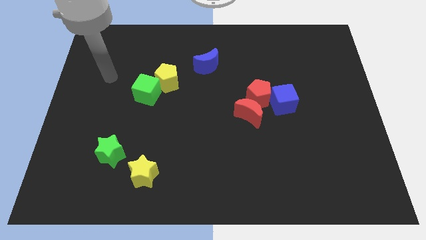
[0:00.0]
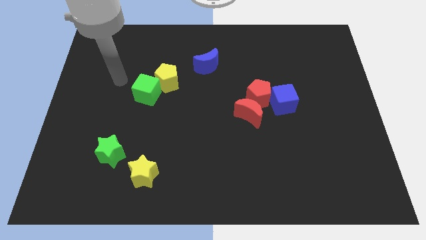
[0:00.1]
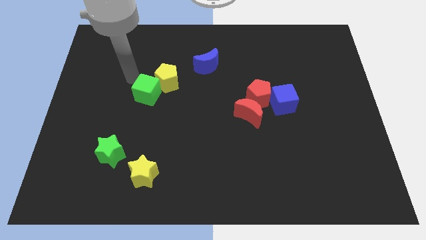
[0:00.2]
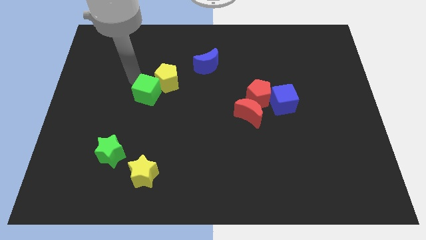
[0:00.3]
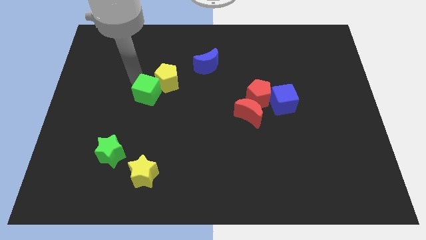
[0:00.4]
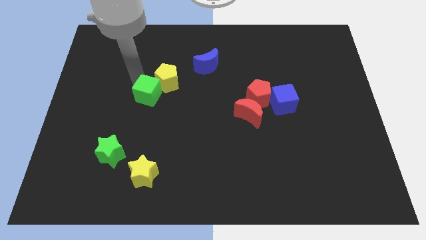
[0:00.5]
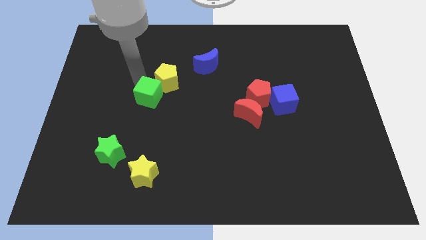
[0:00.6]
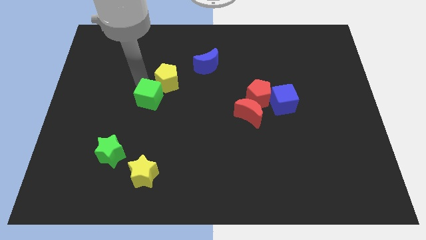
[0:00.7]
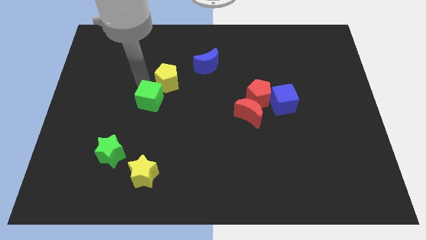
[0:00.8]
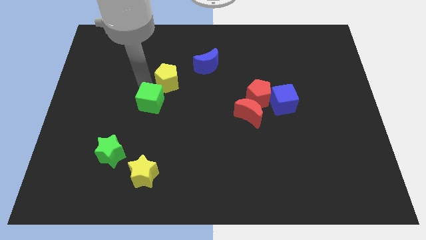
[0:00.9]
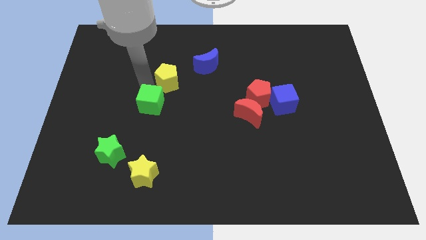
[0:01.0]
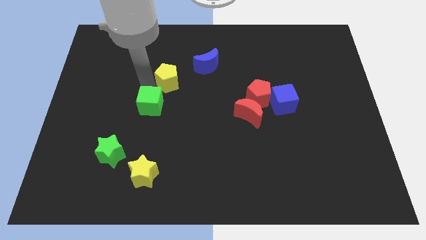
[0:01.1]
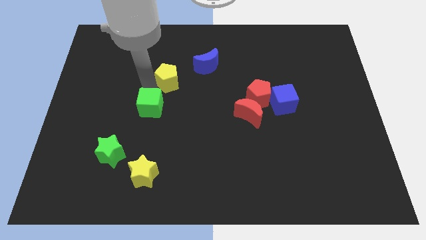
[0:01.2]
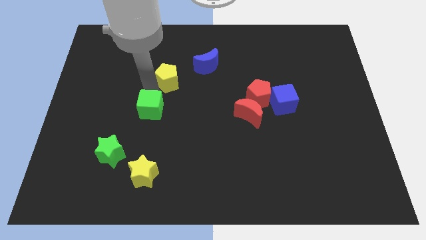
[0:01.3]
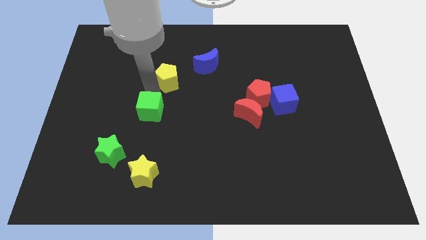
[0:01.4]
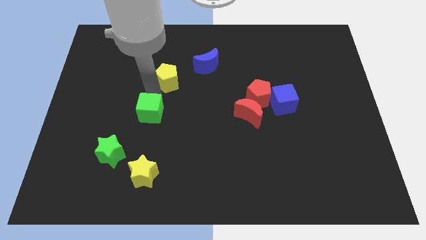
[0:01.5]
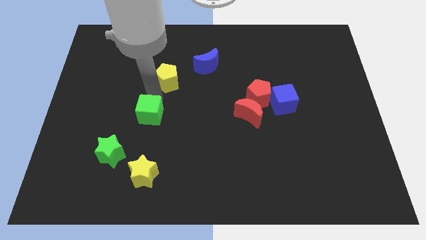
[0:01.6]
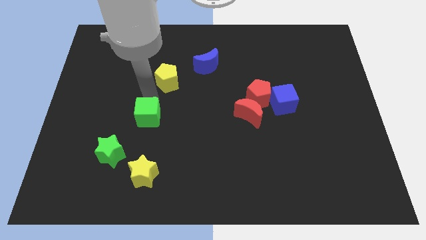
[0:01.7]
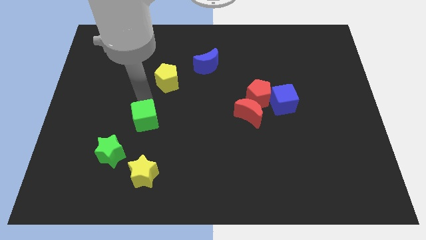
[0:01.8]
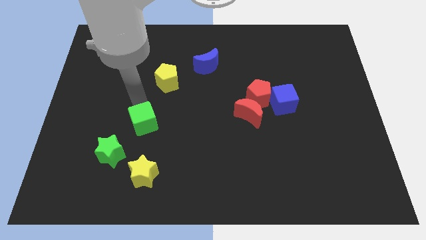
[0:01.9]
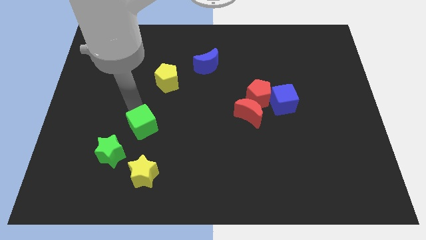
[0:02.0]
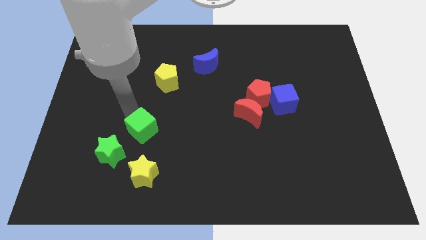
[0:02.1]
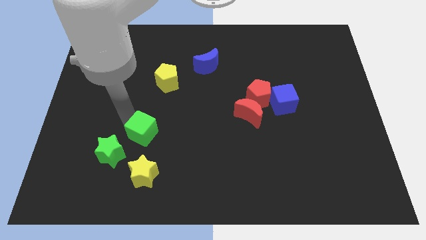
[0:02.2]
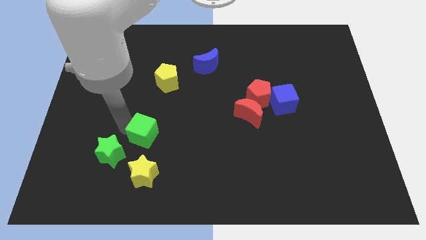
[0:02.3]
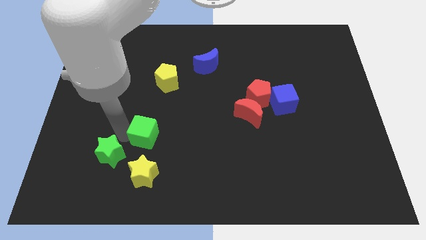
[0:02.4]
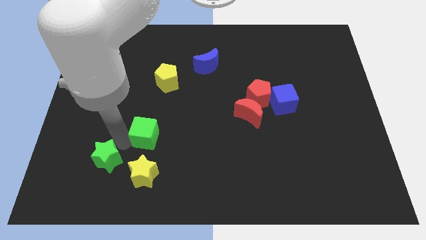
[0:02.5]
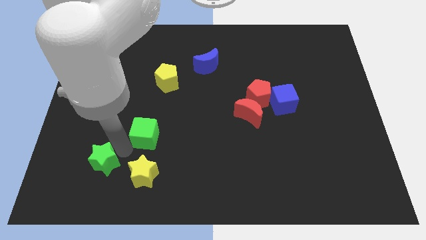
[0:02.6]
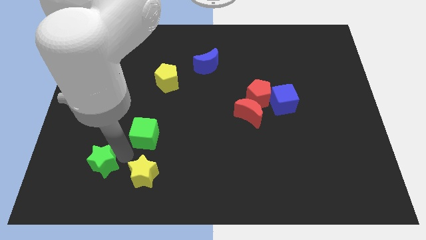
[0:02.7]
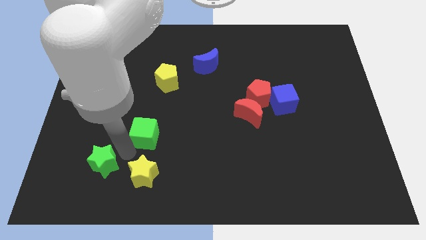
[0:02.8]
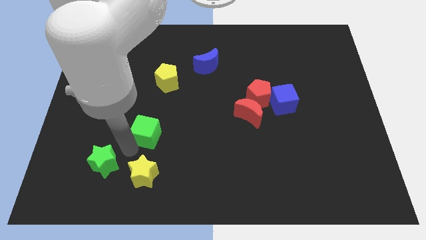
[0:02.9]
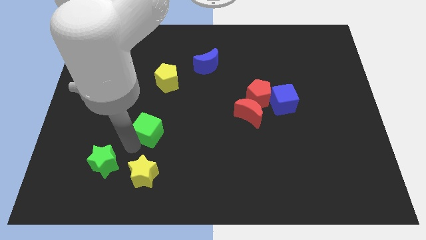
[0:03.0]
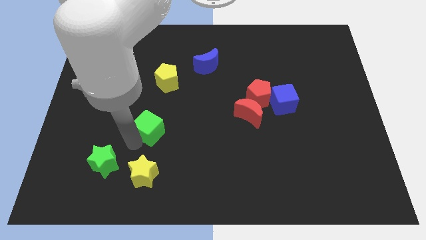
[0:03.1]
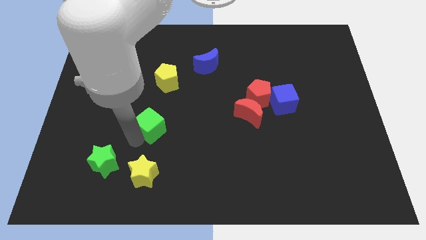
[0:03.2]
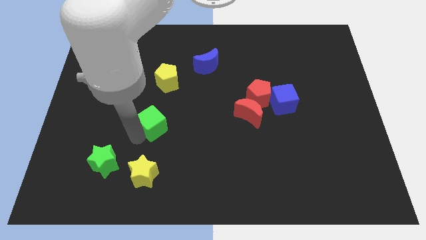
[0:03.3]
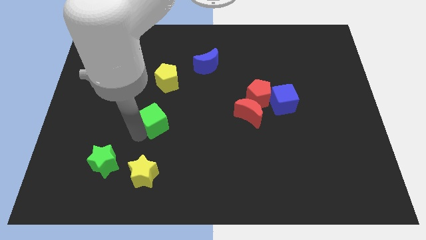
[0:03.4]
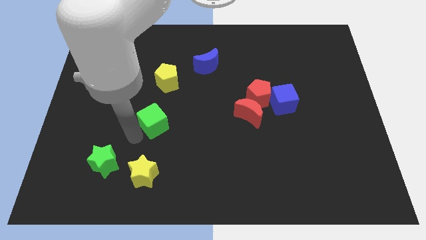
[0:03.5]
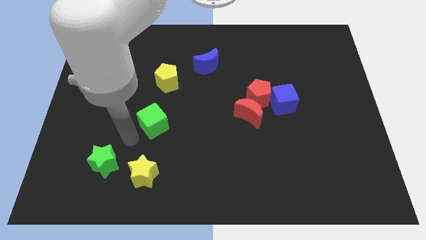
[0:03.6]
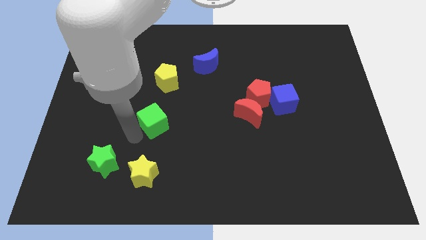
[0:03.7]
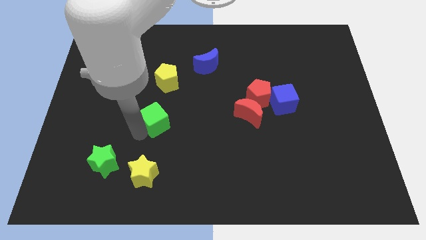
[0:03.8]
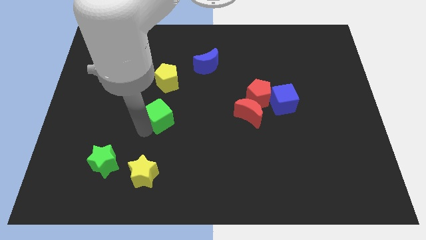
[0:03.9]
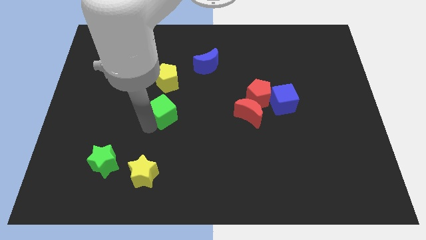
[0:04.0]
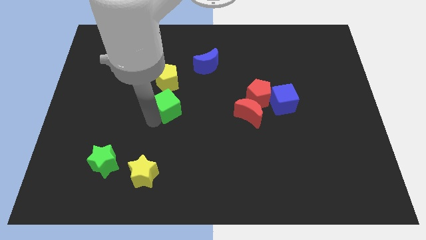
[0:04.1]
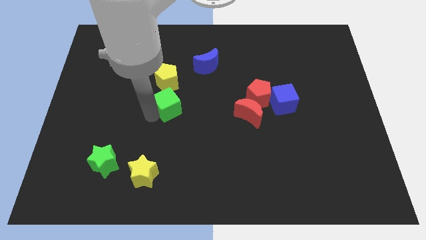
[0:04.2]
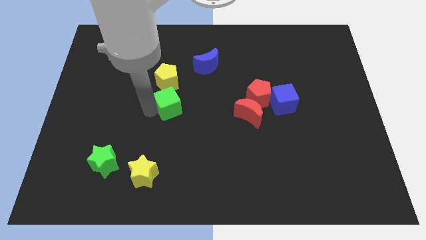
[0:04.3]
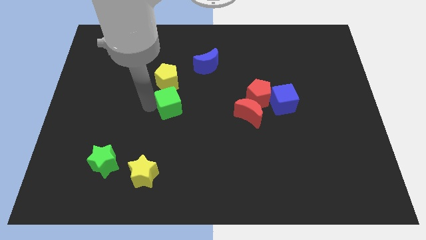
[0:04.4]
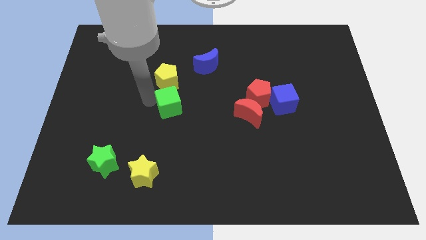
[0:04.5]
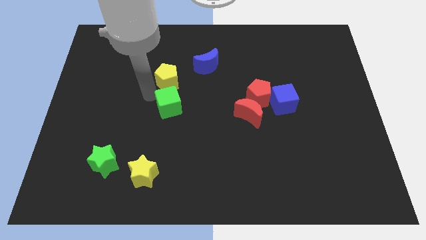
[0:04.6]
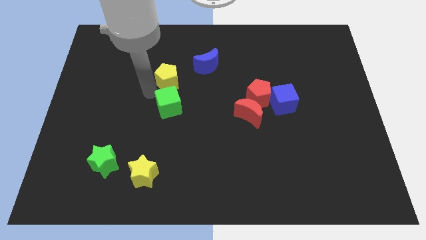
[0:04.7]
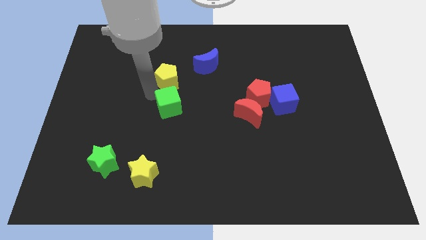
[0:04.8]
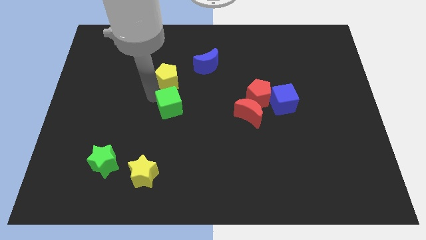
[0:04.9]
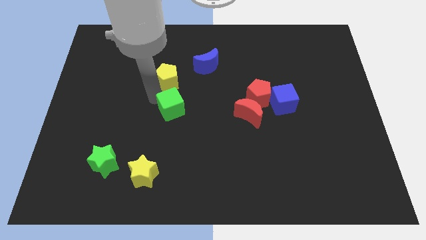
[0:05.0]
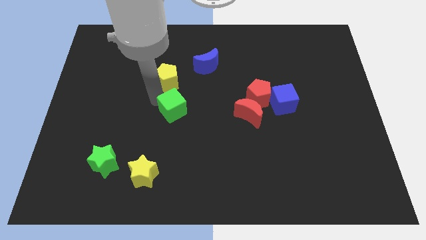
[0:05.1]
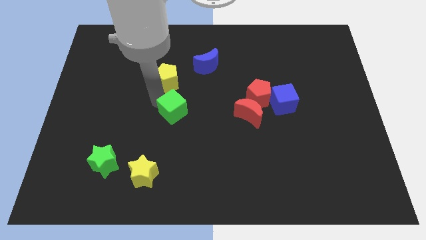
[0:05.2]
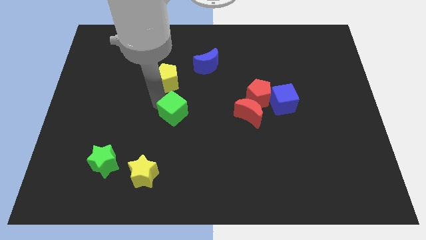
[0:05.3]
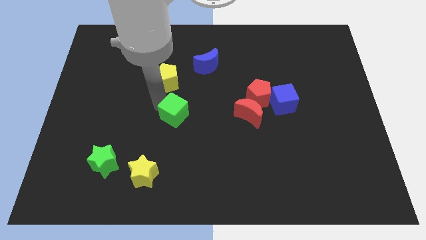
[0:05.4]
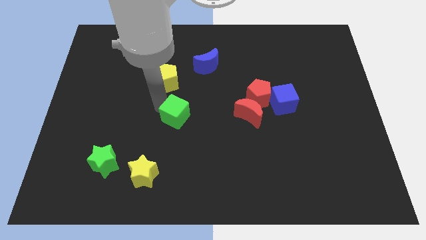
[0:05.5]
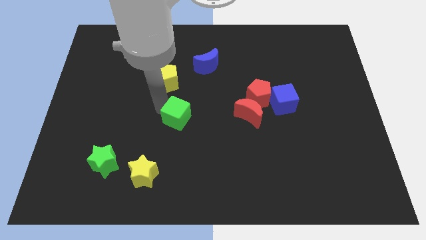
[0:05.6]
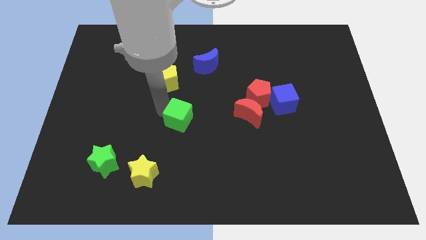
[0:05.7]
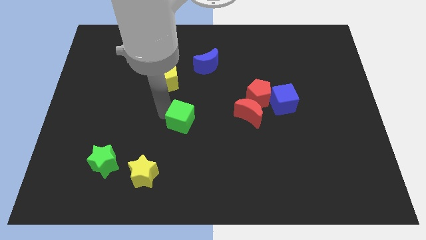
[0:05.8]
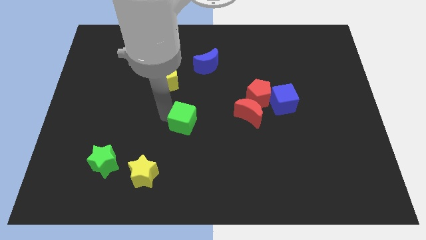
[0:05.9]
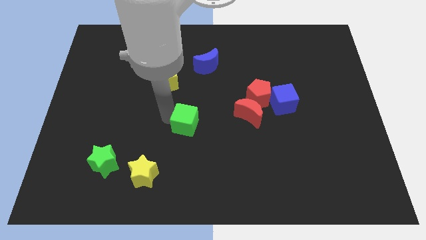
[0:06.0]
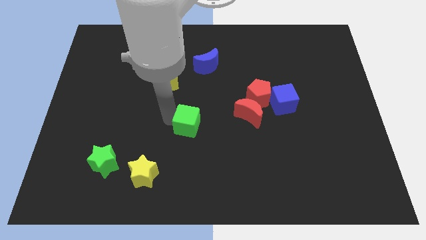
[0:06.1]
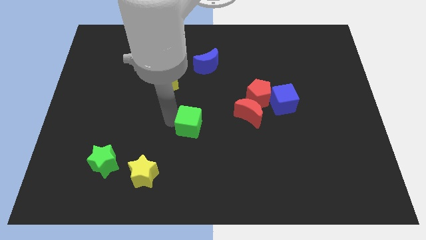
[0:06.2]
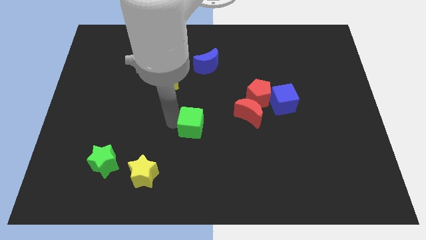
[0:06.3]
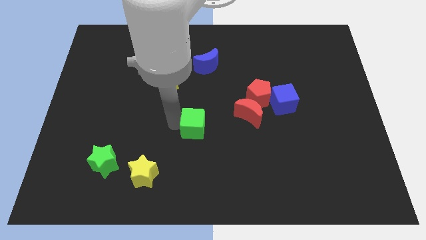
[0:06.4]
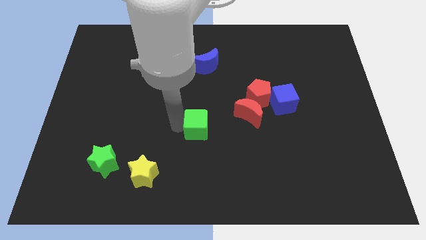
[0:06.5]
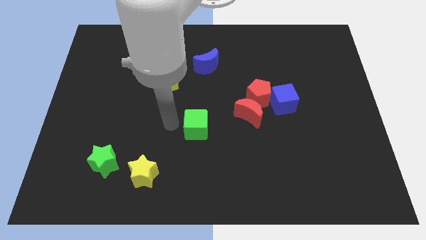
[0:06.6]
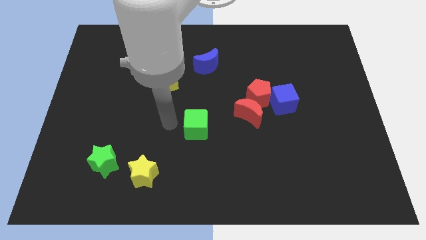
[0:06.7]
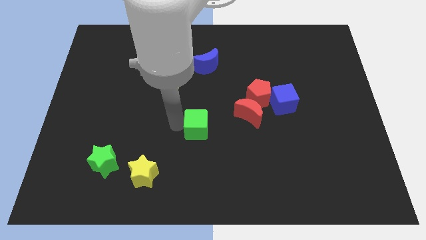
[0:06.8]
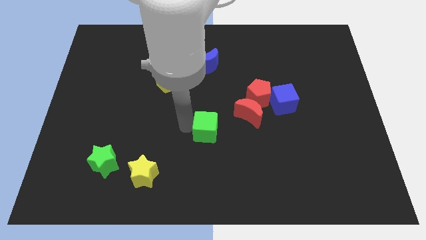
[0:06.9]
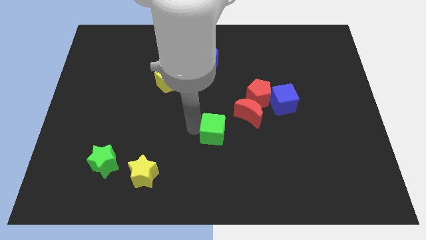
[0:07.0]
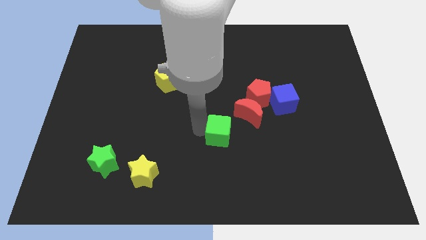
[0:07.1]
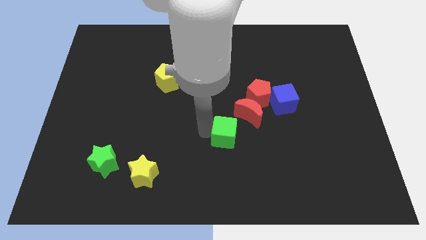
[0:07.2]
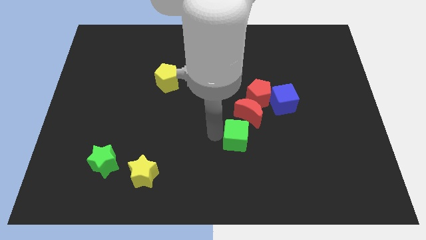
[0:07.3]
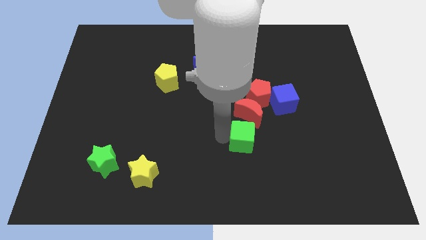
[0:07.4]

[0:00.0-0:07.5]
move the green cube below the red pentagon
